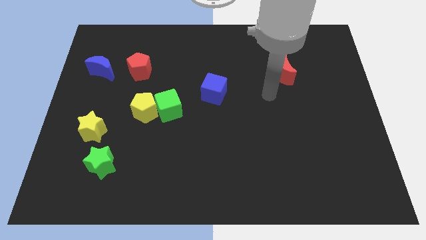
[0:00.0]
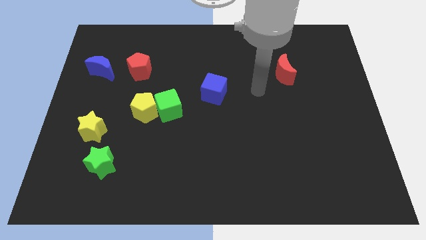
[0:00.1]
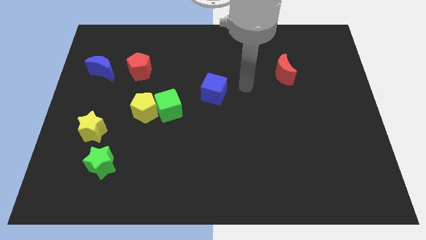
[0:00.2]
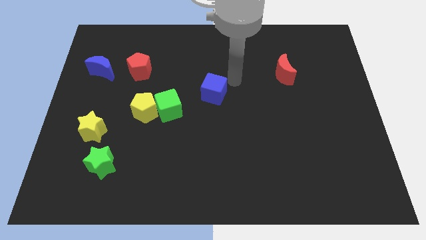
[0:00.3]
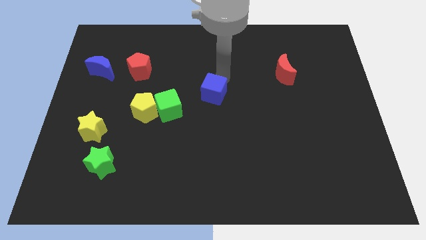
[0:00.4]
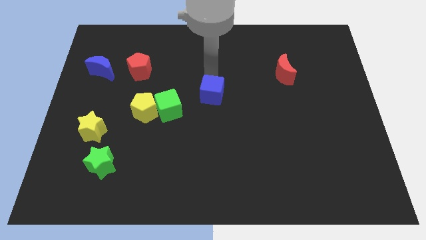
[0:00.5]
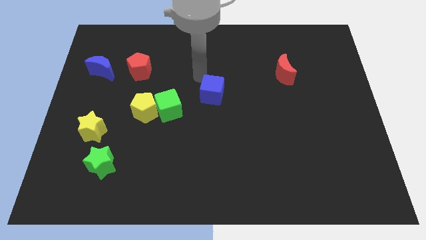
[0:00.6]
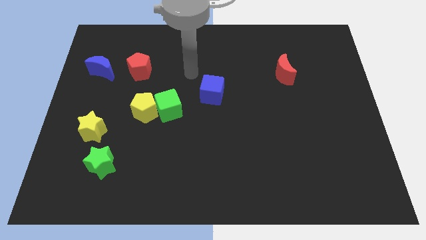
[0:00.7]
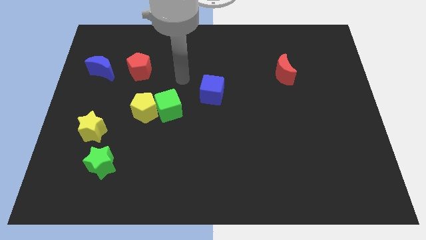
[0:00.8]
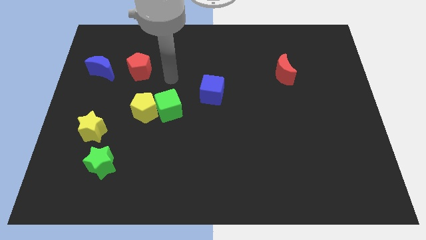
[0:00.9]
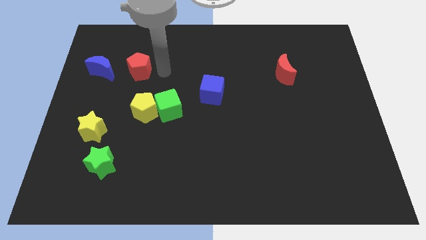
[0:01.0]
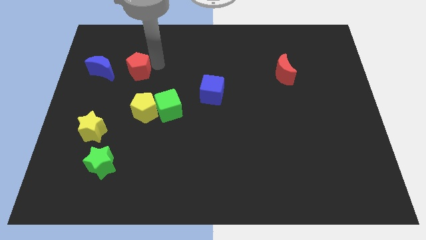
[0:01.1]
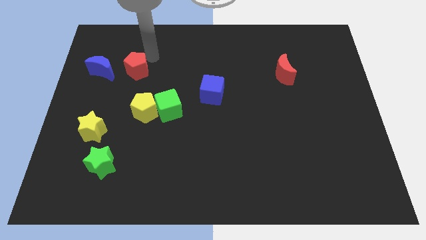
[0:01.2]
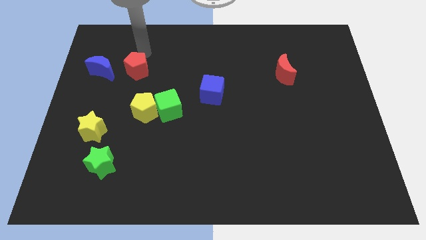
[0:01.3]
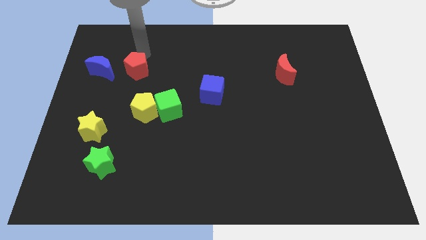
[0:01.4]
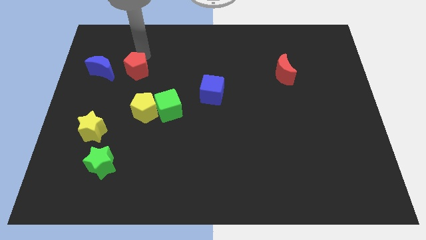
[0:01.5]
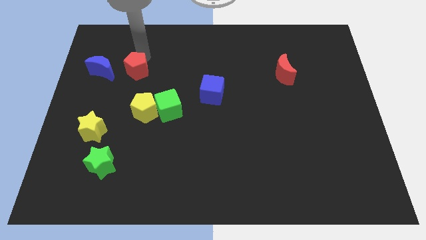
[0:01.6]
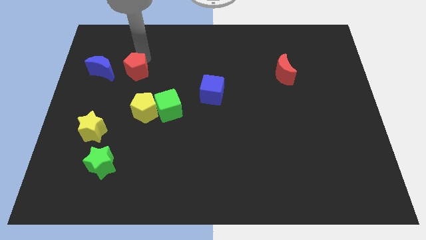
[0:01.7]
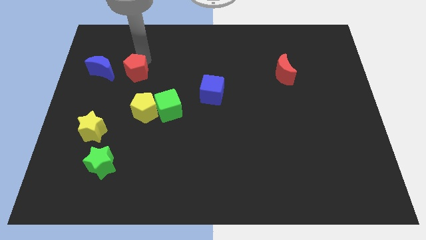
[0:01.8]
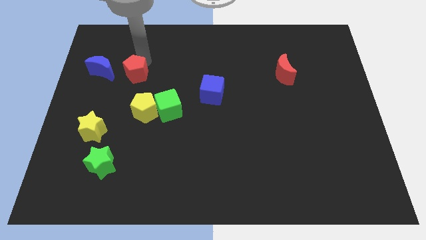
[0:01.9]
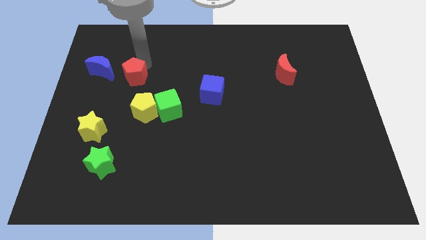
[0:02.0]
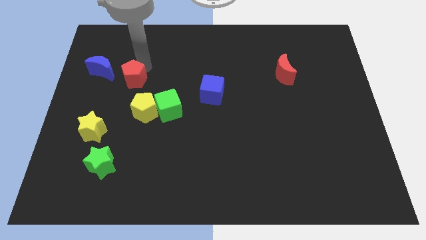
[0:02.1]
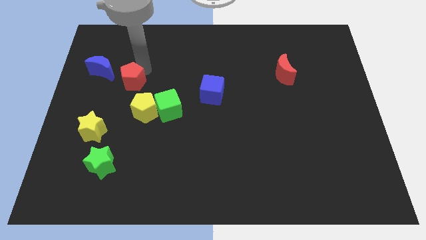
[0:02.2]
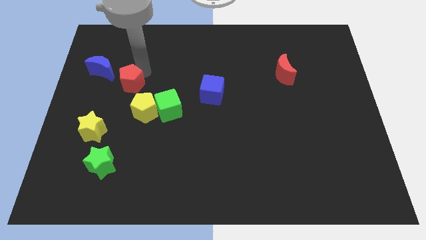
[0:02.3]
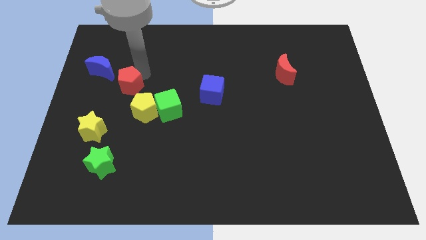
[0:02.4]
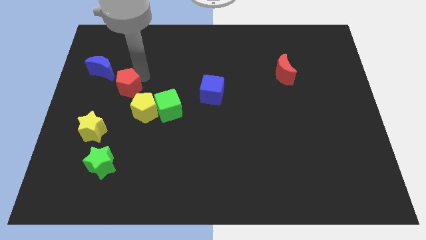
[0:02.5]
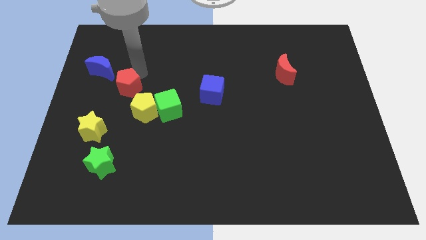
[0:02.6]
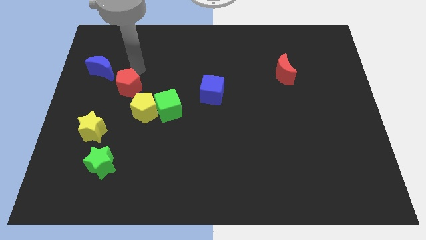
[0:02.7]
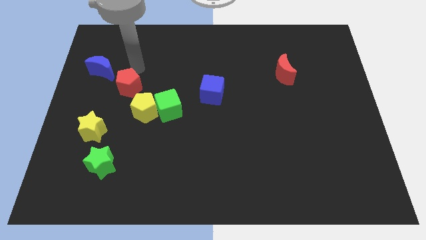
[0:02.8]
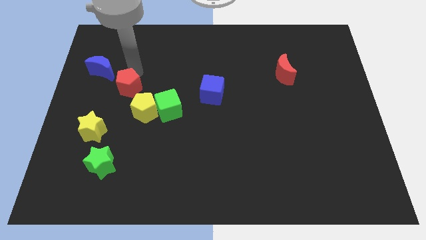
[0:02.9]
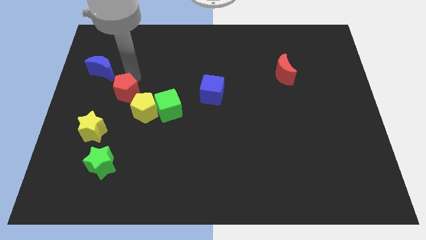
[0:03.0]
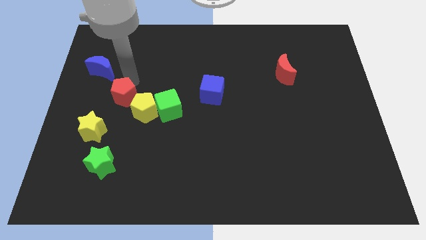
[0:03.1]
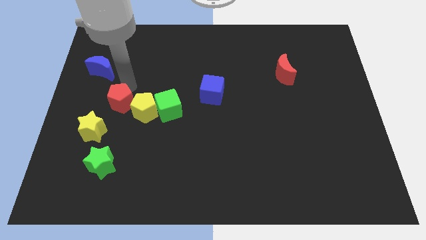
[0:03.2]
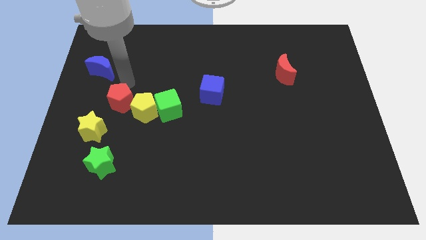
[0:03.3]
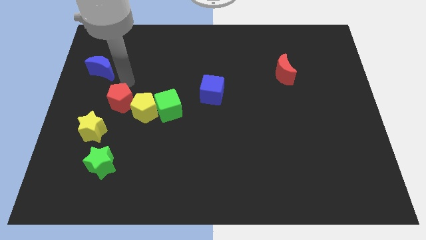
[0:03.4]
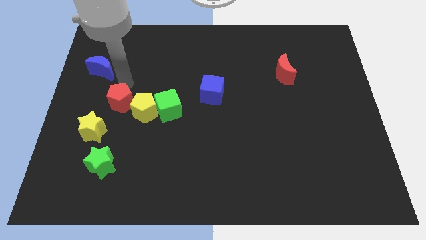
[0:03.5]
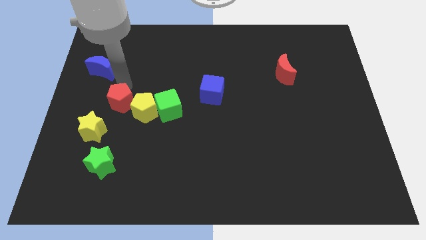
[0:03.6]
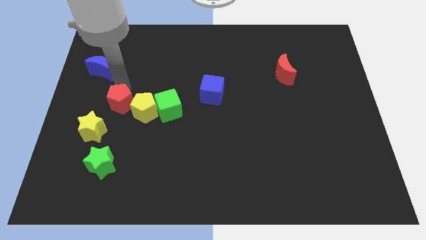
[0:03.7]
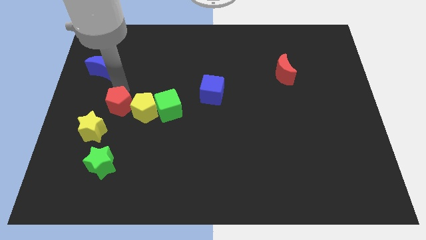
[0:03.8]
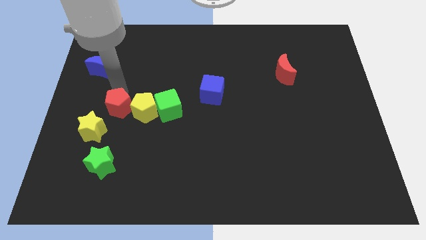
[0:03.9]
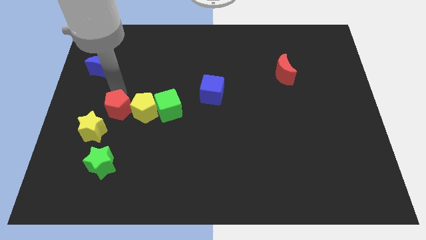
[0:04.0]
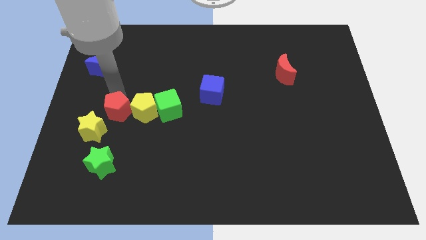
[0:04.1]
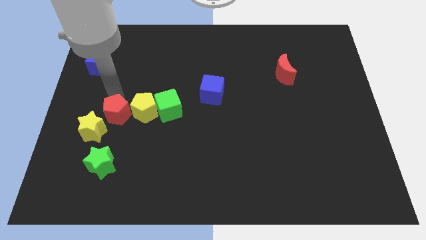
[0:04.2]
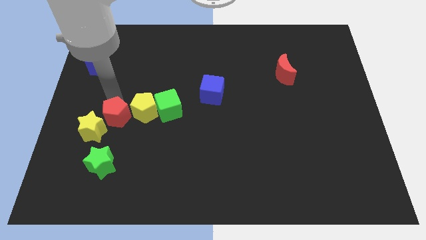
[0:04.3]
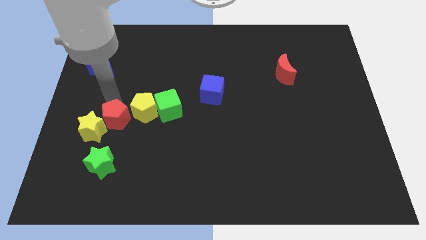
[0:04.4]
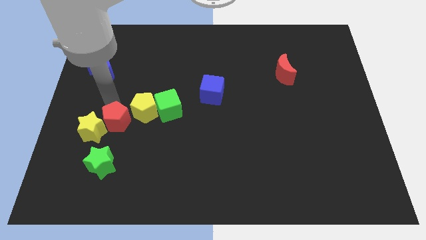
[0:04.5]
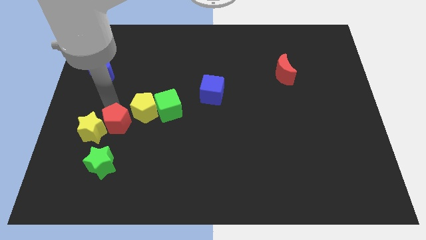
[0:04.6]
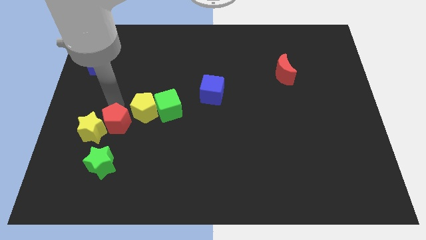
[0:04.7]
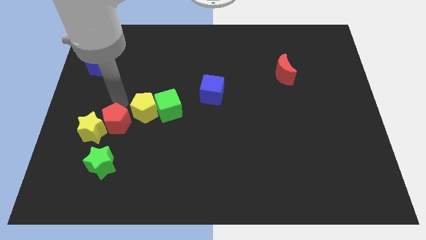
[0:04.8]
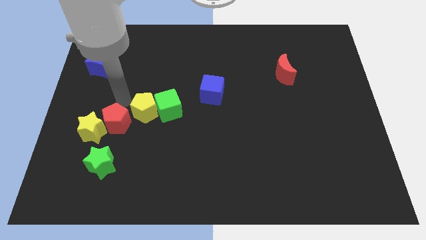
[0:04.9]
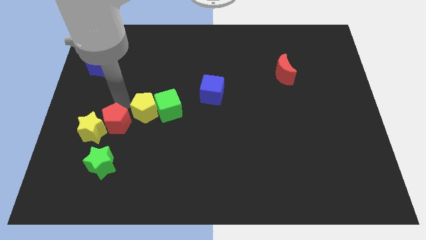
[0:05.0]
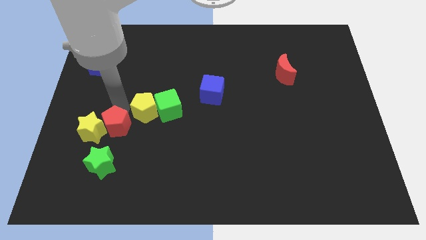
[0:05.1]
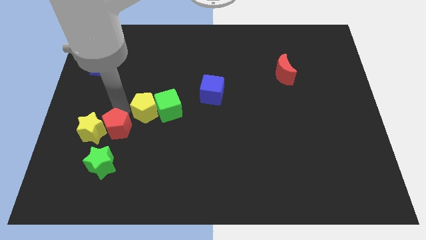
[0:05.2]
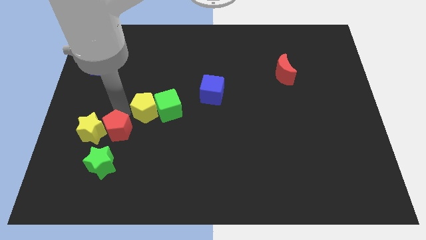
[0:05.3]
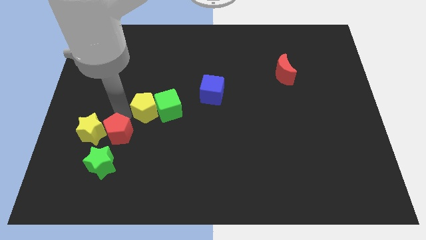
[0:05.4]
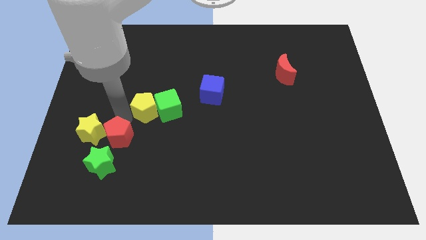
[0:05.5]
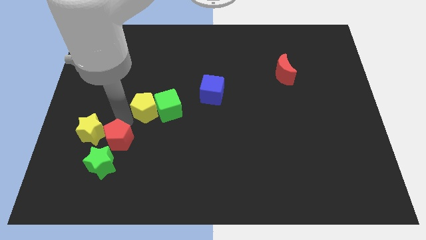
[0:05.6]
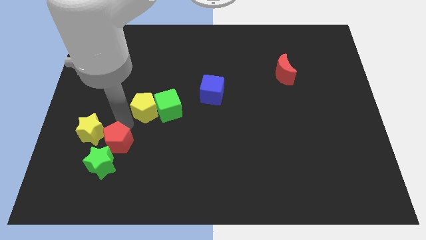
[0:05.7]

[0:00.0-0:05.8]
move the red pentagon to the green star

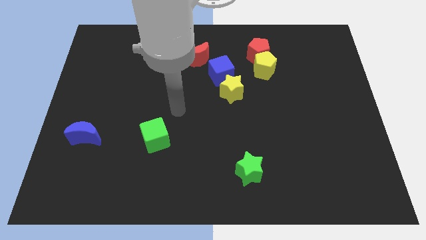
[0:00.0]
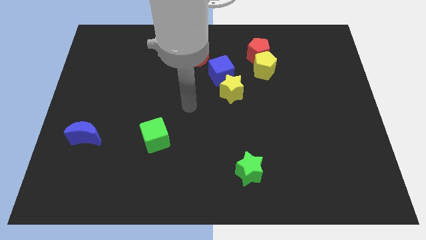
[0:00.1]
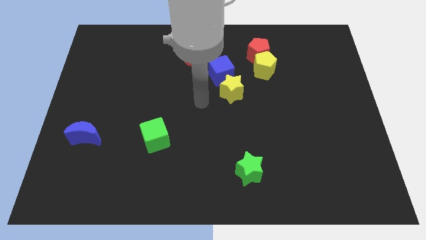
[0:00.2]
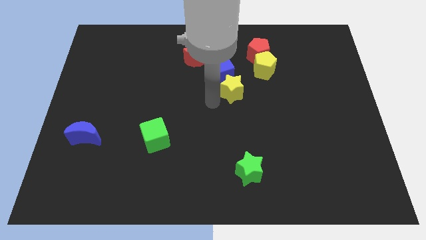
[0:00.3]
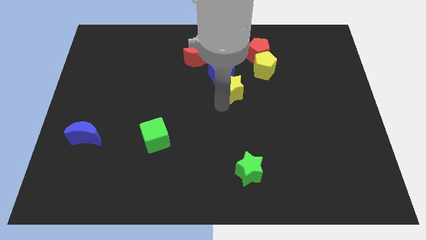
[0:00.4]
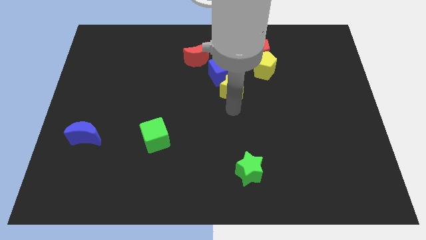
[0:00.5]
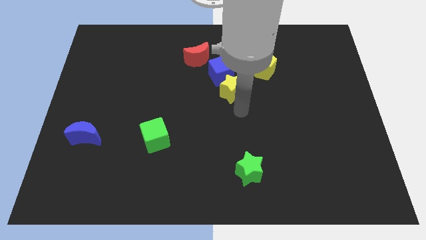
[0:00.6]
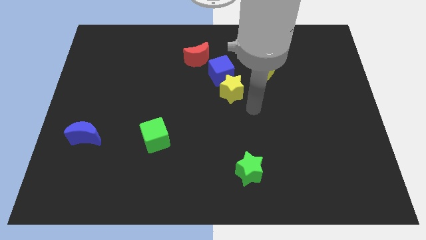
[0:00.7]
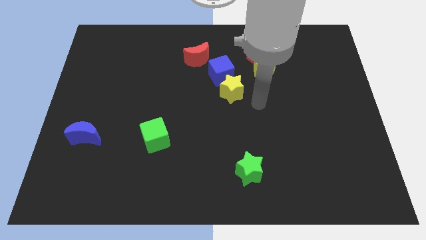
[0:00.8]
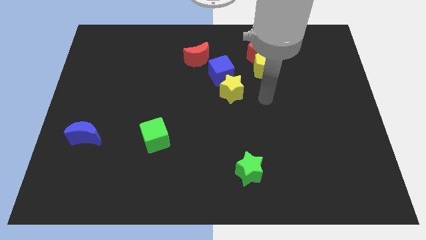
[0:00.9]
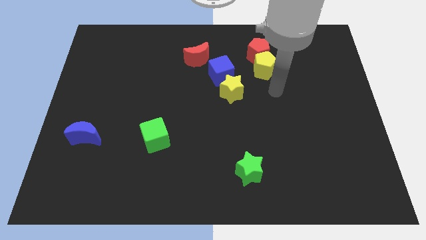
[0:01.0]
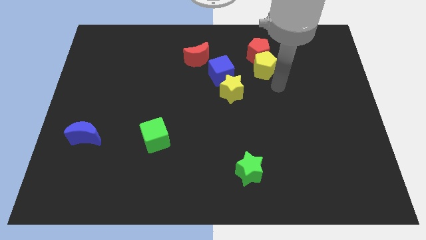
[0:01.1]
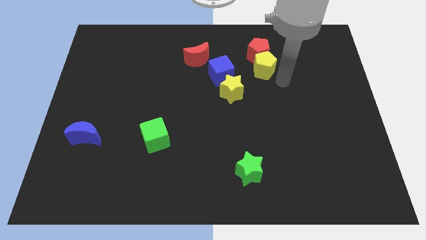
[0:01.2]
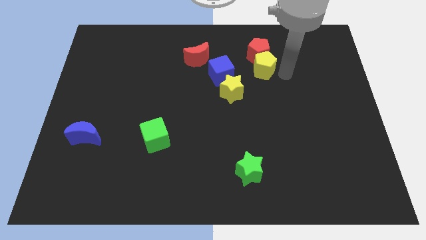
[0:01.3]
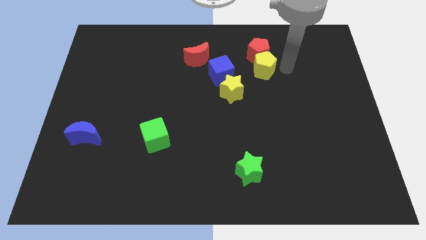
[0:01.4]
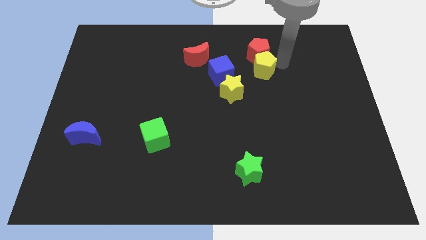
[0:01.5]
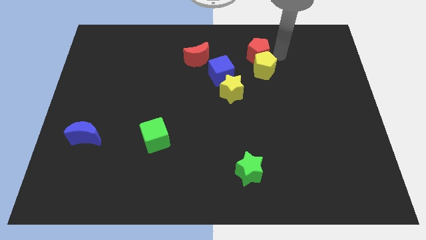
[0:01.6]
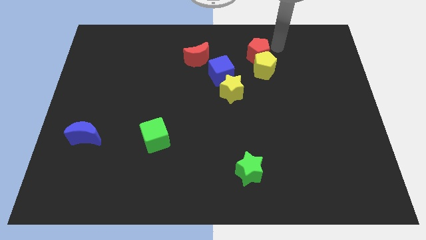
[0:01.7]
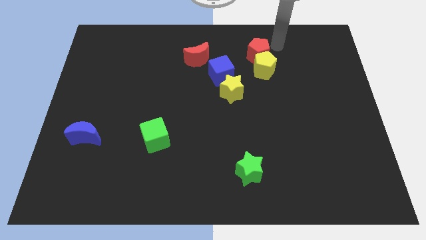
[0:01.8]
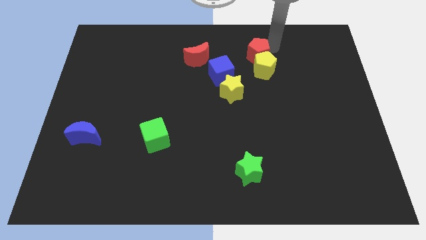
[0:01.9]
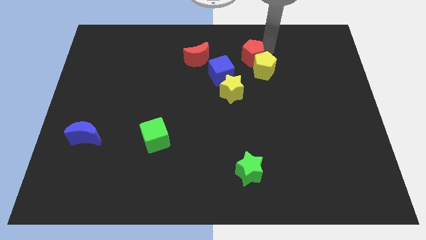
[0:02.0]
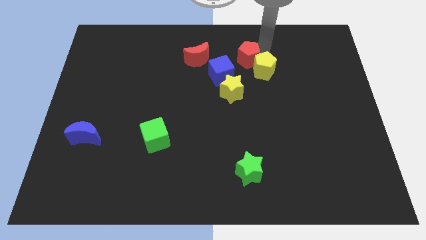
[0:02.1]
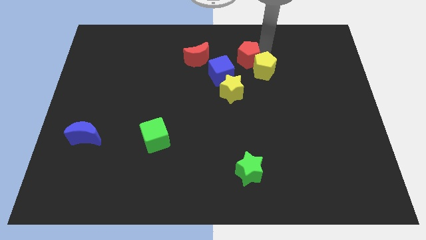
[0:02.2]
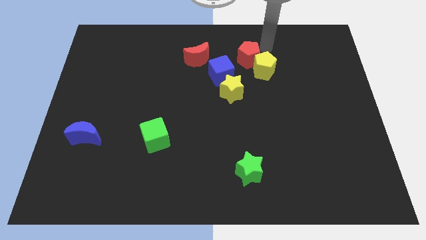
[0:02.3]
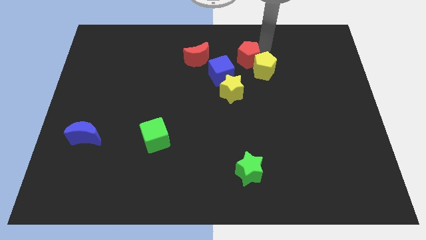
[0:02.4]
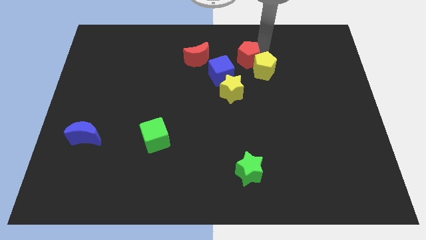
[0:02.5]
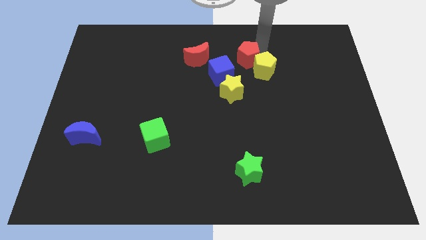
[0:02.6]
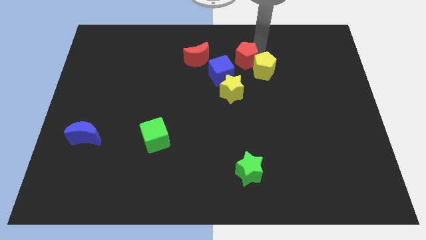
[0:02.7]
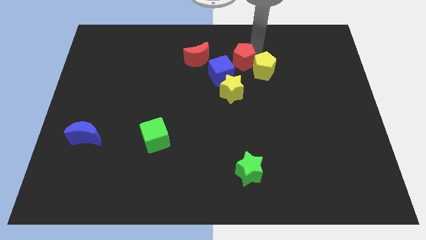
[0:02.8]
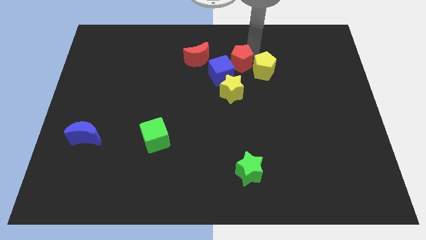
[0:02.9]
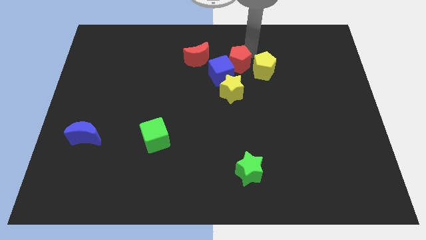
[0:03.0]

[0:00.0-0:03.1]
move the red pentagon next to the blue cube
